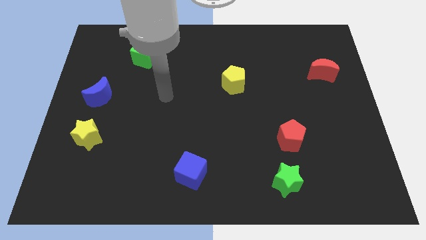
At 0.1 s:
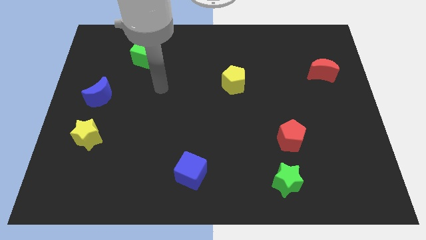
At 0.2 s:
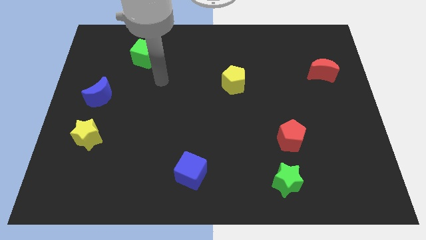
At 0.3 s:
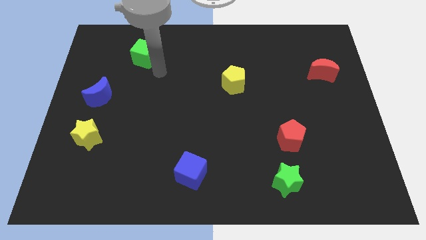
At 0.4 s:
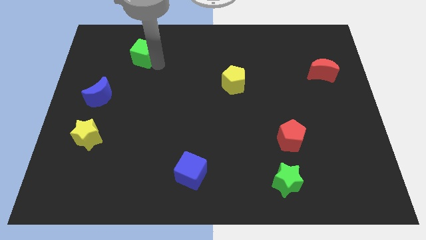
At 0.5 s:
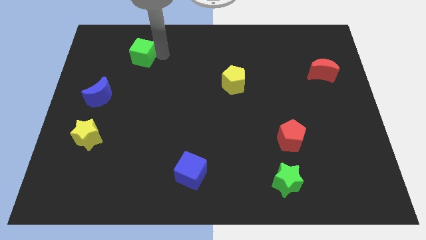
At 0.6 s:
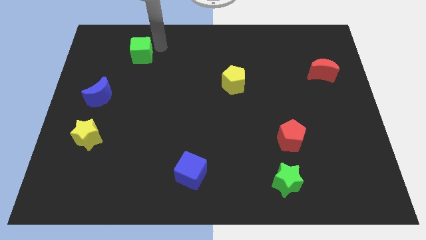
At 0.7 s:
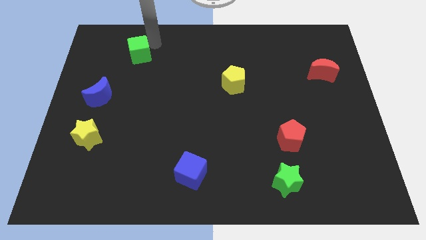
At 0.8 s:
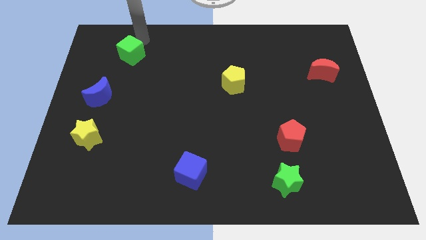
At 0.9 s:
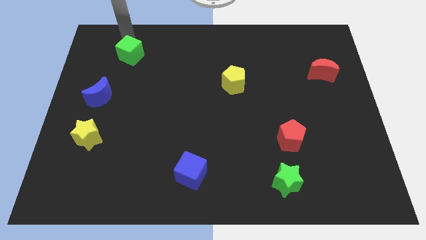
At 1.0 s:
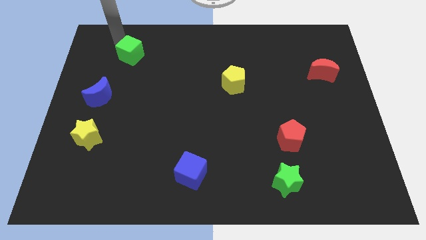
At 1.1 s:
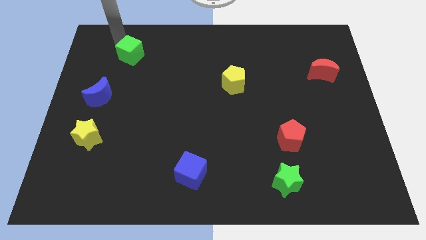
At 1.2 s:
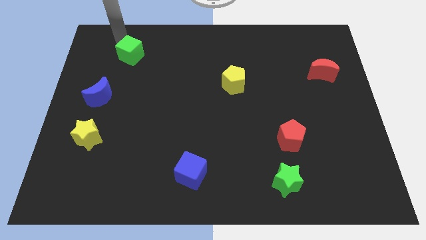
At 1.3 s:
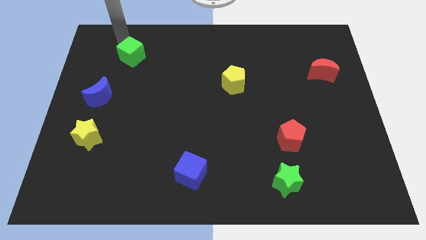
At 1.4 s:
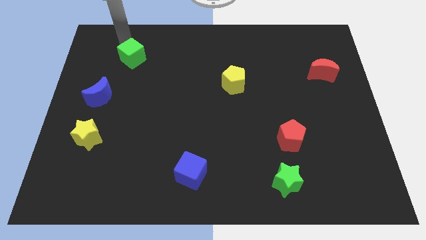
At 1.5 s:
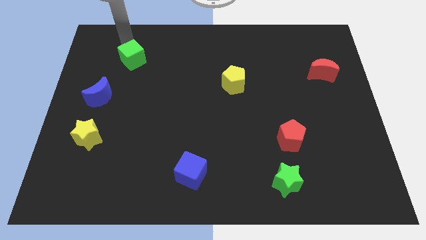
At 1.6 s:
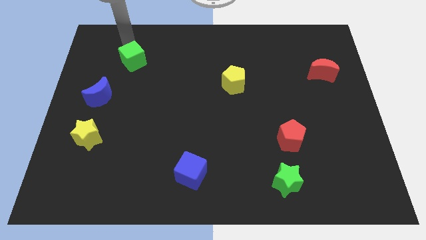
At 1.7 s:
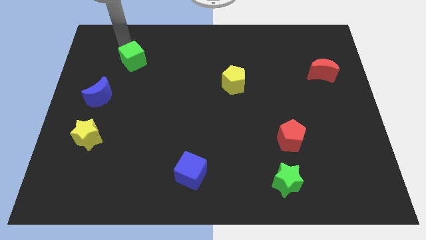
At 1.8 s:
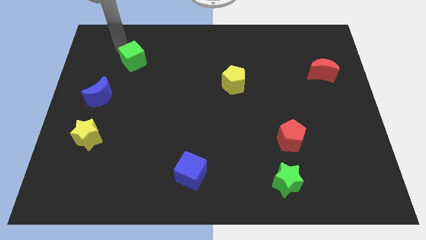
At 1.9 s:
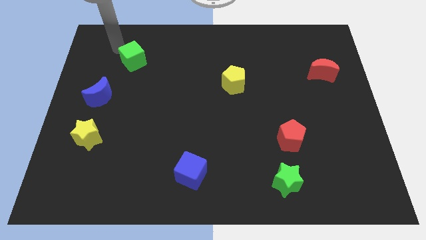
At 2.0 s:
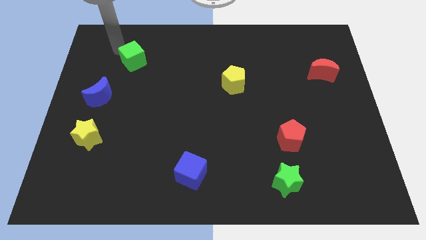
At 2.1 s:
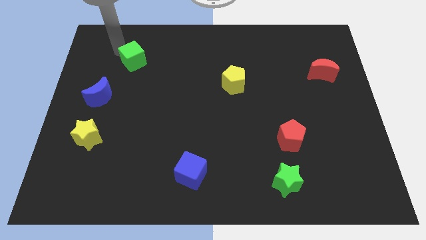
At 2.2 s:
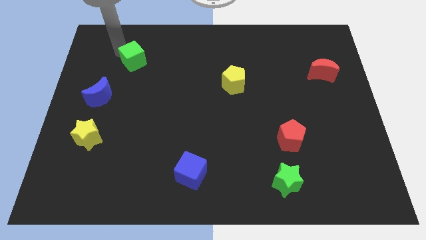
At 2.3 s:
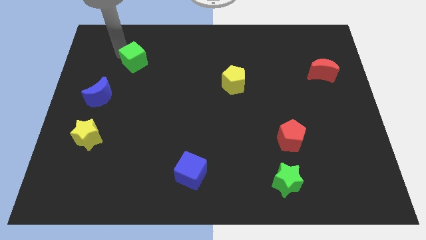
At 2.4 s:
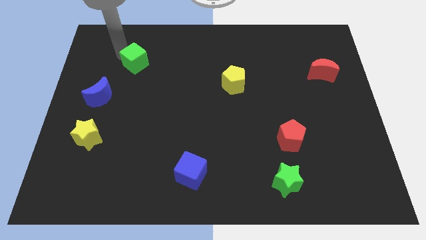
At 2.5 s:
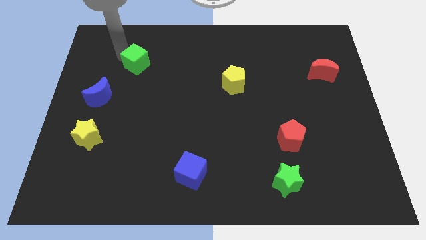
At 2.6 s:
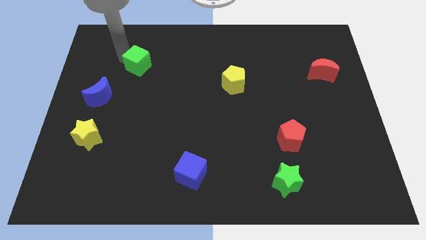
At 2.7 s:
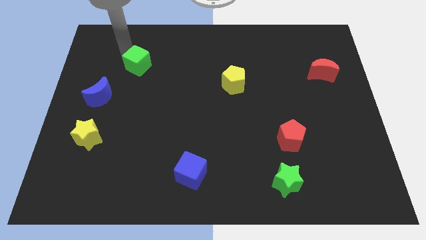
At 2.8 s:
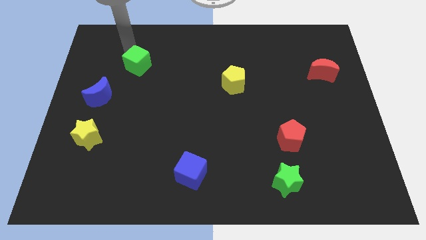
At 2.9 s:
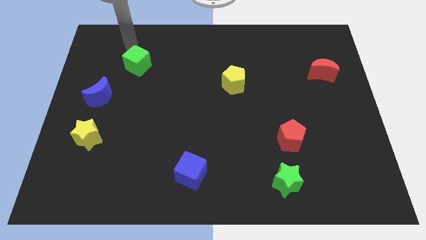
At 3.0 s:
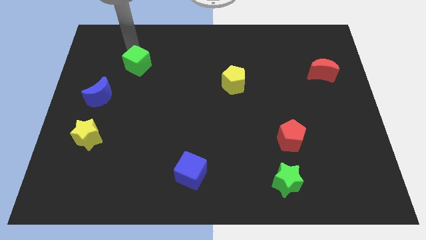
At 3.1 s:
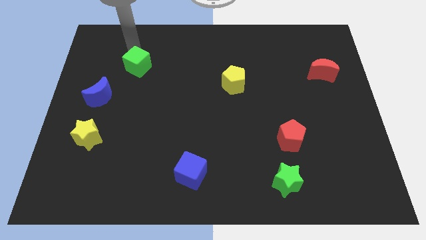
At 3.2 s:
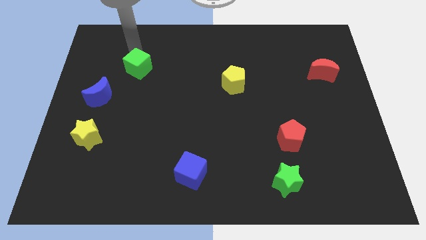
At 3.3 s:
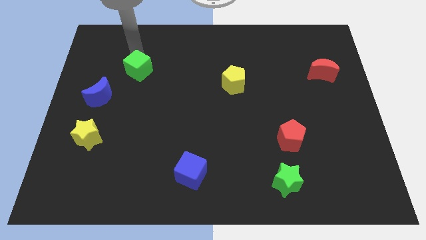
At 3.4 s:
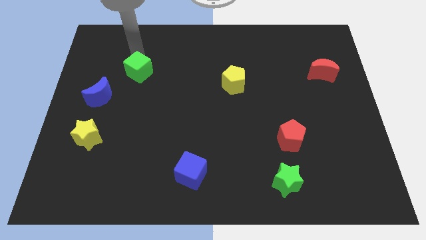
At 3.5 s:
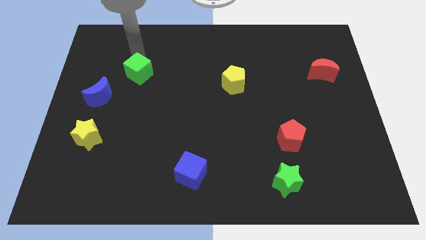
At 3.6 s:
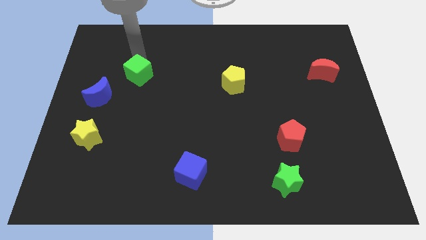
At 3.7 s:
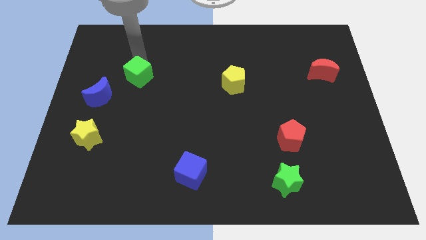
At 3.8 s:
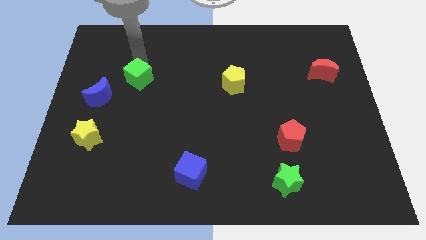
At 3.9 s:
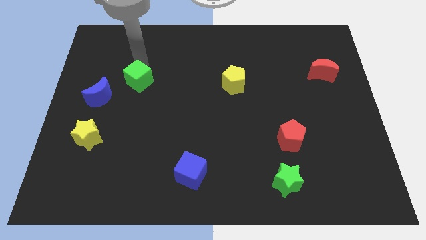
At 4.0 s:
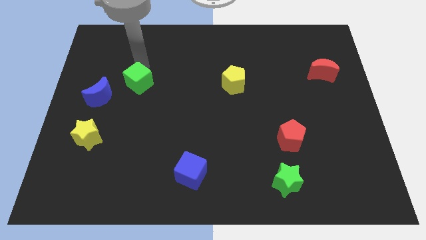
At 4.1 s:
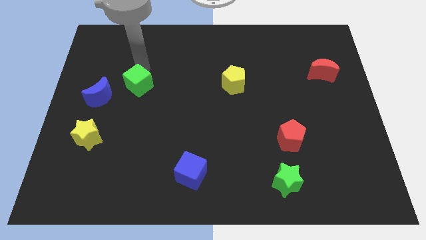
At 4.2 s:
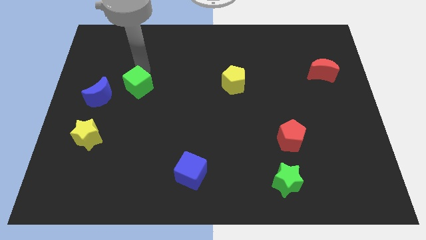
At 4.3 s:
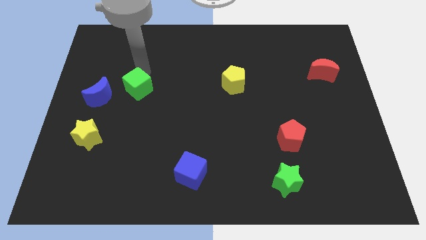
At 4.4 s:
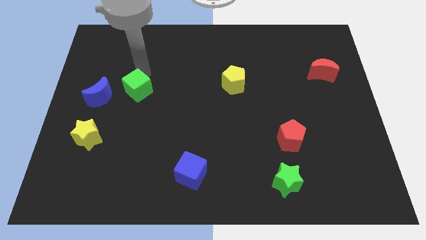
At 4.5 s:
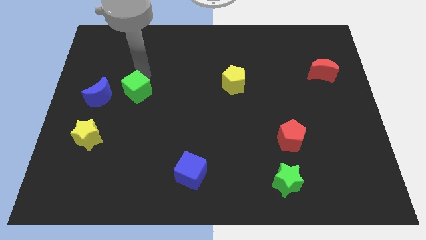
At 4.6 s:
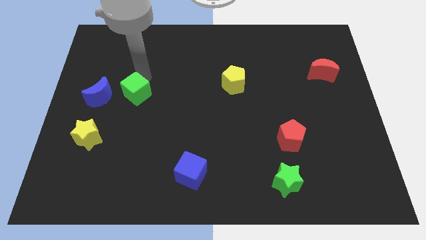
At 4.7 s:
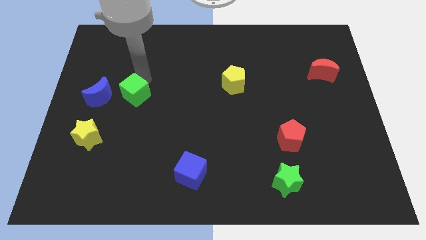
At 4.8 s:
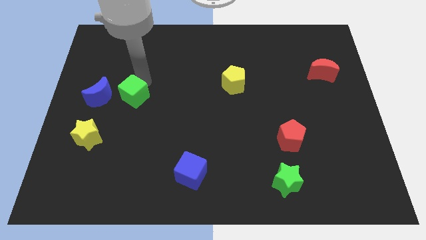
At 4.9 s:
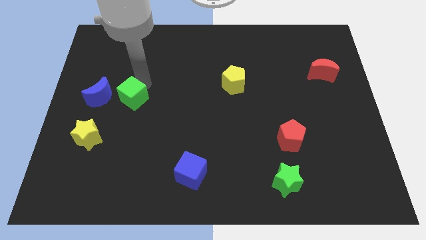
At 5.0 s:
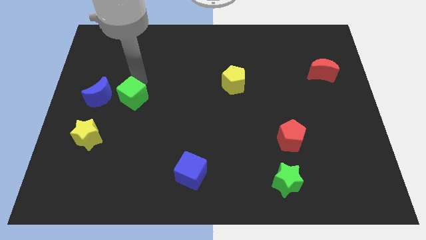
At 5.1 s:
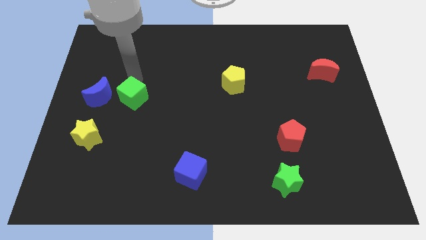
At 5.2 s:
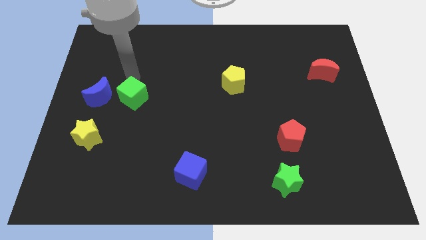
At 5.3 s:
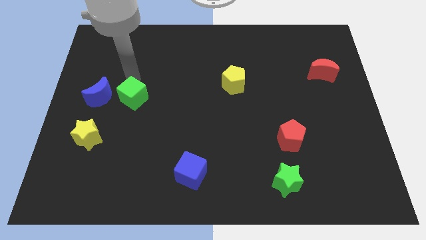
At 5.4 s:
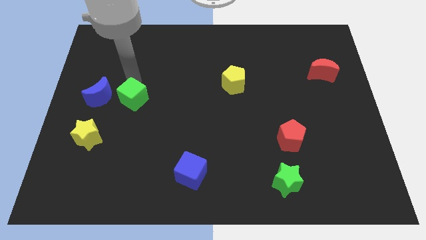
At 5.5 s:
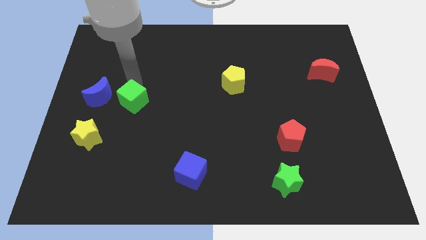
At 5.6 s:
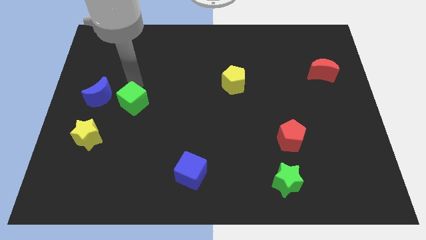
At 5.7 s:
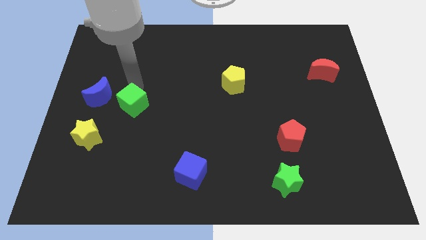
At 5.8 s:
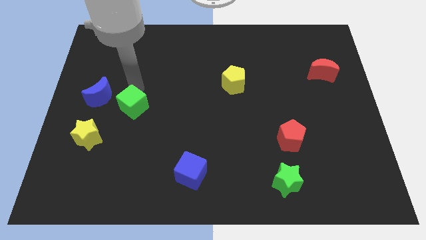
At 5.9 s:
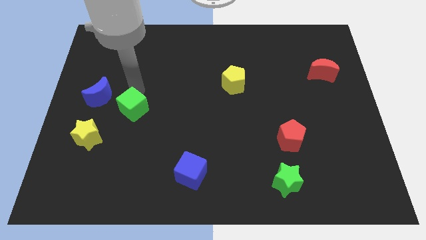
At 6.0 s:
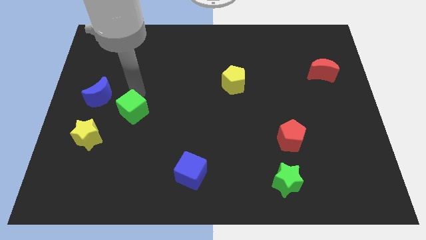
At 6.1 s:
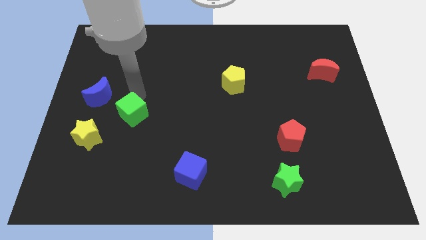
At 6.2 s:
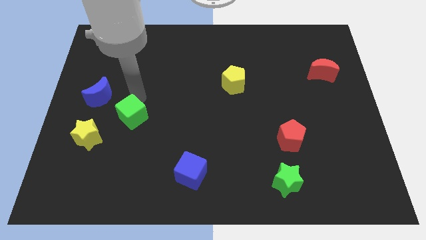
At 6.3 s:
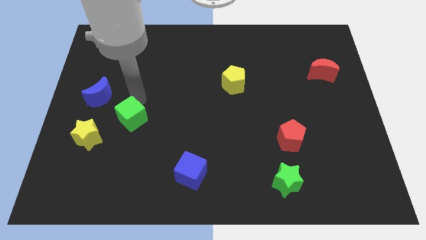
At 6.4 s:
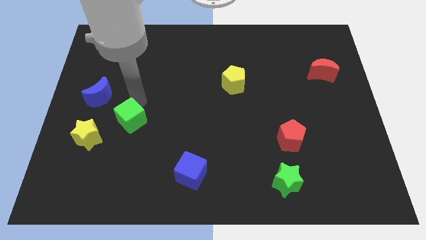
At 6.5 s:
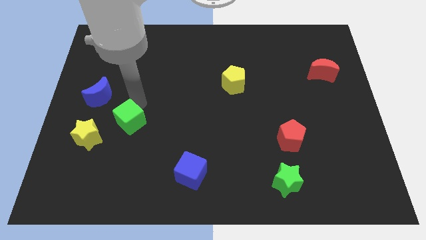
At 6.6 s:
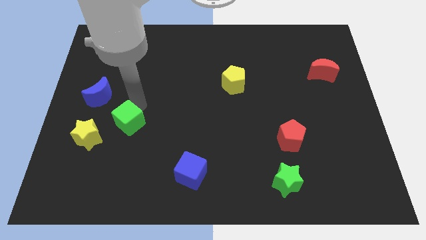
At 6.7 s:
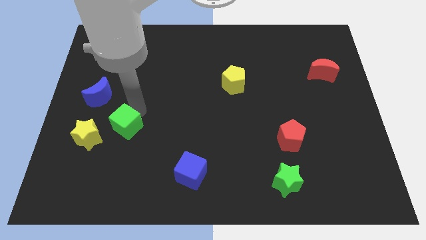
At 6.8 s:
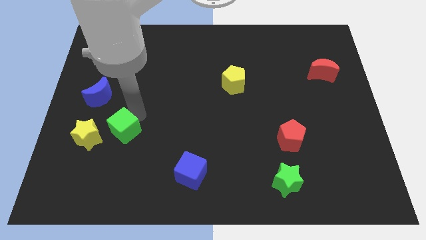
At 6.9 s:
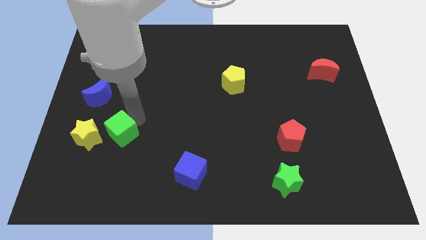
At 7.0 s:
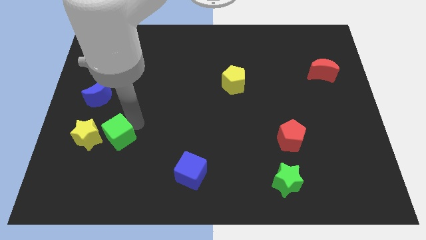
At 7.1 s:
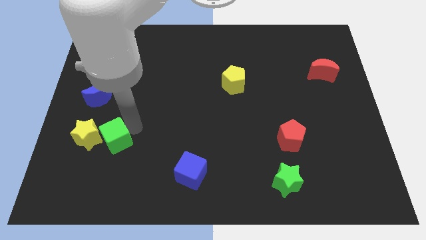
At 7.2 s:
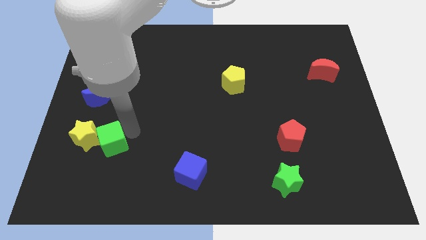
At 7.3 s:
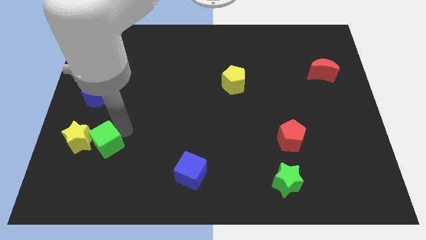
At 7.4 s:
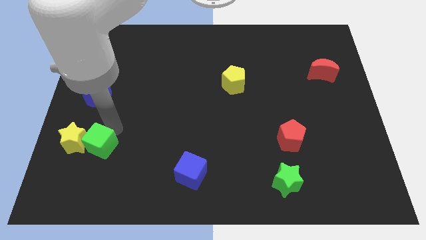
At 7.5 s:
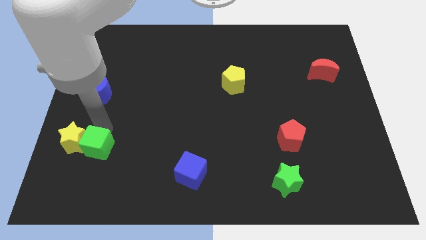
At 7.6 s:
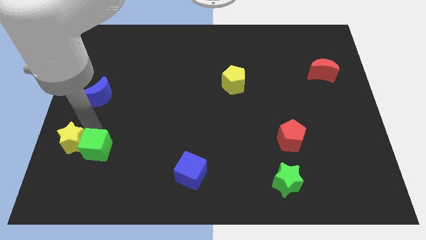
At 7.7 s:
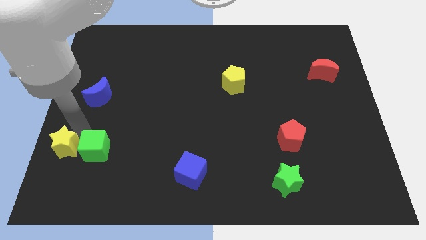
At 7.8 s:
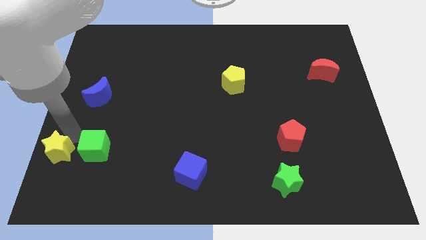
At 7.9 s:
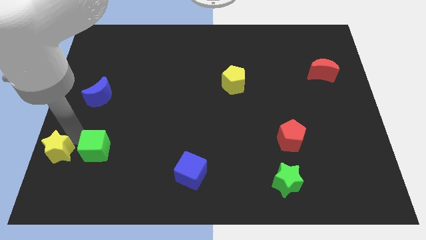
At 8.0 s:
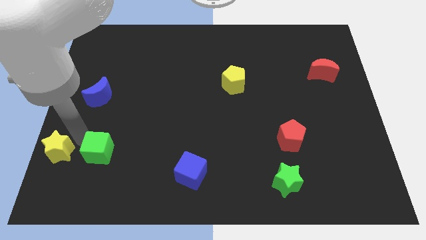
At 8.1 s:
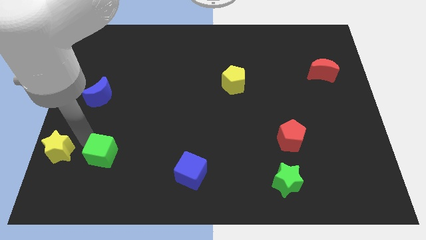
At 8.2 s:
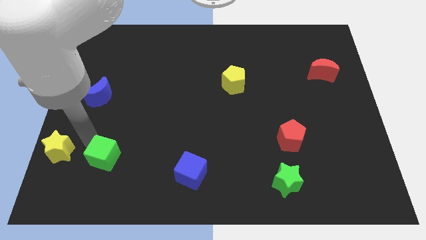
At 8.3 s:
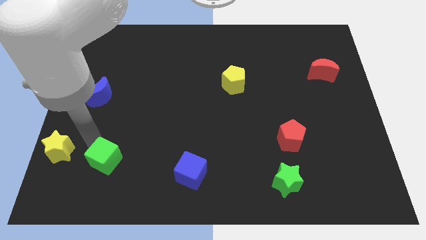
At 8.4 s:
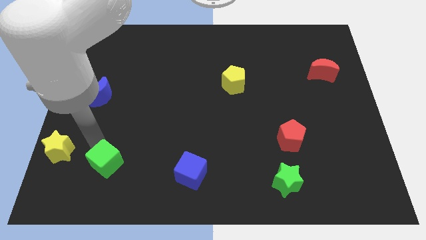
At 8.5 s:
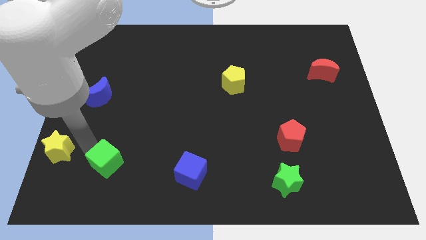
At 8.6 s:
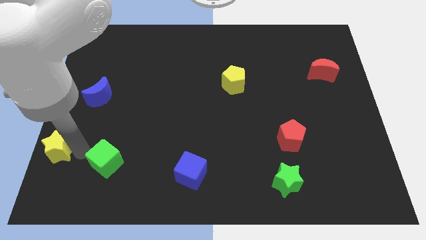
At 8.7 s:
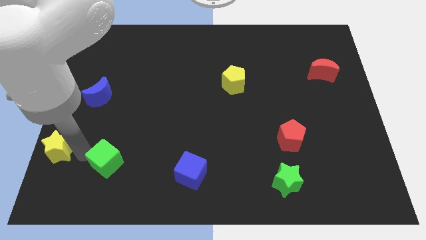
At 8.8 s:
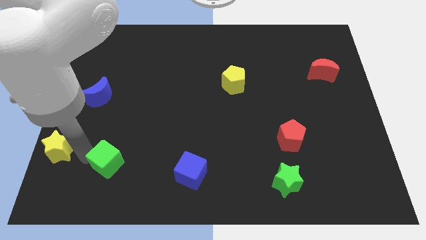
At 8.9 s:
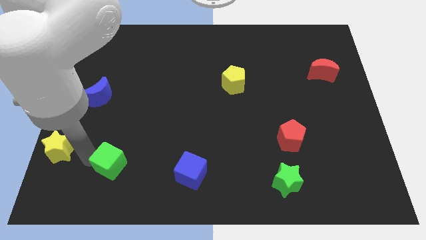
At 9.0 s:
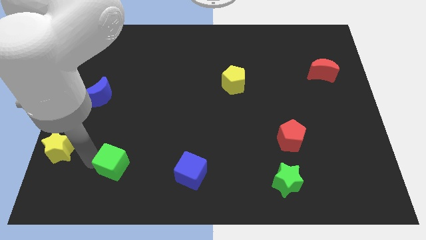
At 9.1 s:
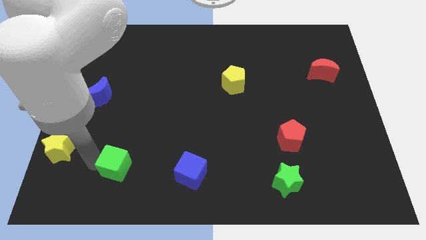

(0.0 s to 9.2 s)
push the green cube to the left of the blue cube
